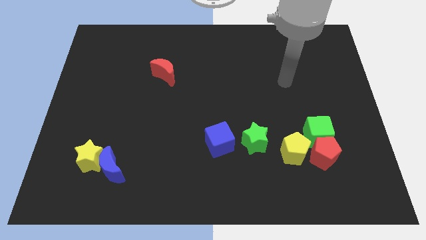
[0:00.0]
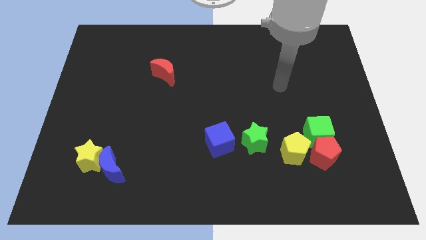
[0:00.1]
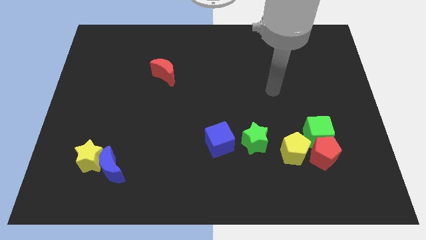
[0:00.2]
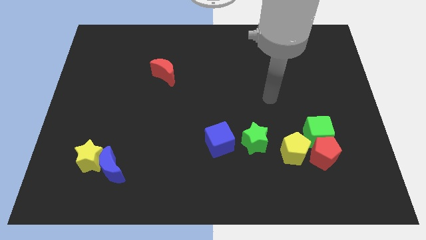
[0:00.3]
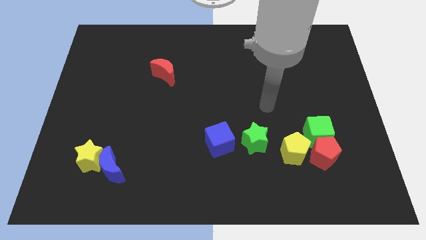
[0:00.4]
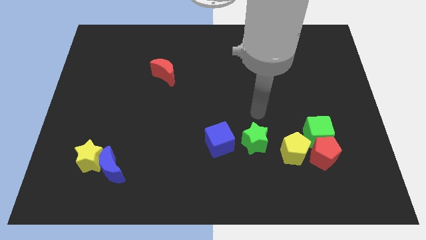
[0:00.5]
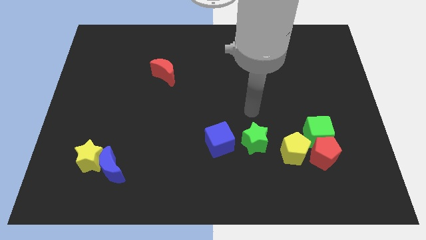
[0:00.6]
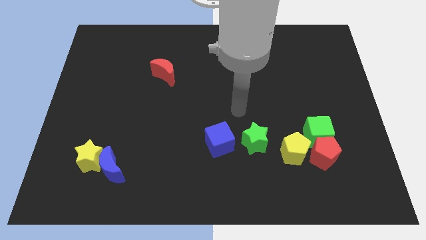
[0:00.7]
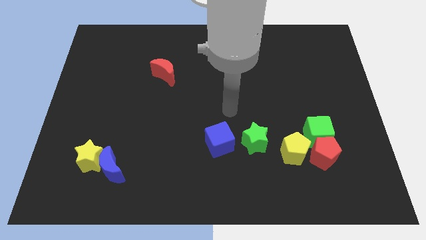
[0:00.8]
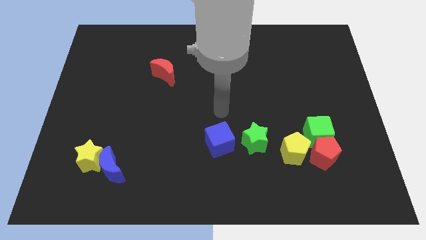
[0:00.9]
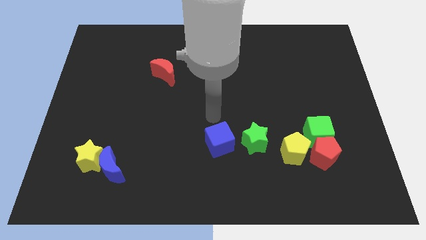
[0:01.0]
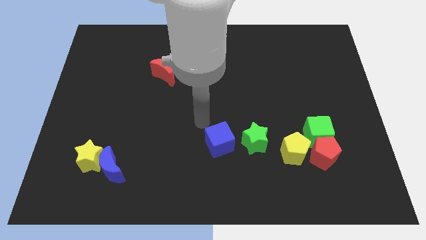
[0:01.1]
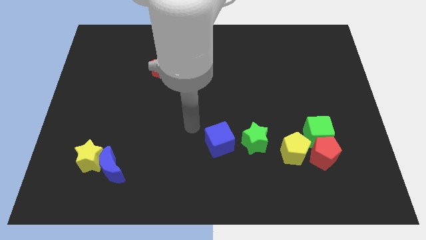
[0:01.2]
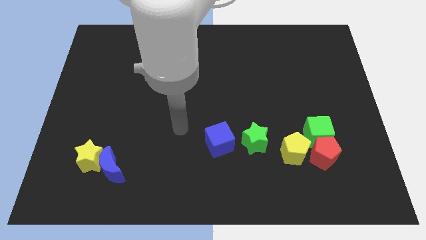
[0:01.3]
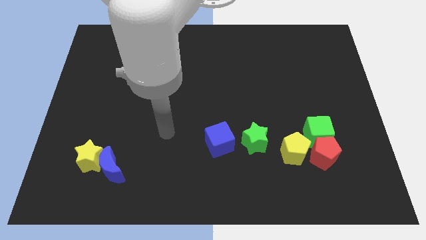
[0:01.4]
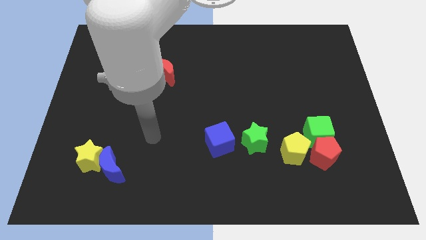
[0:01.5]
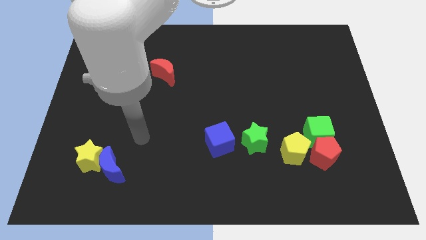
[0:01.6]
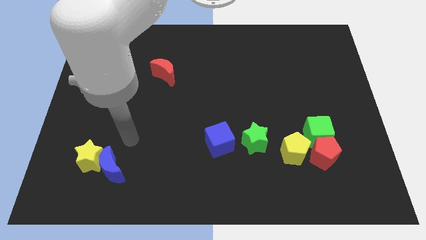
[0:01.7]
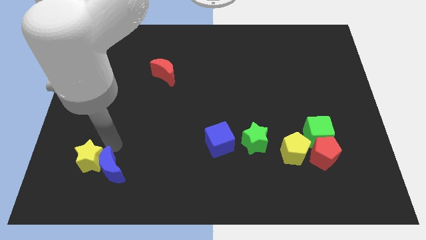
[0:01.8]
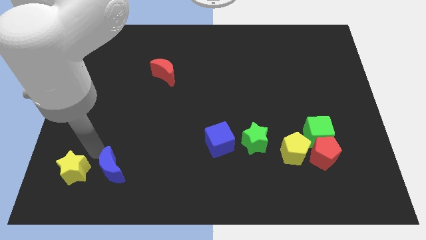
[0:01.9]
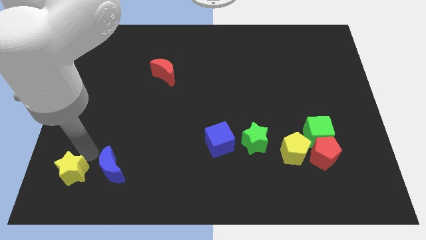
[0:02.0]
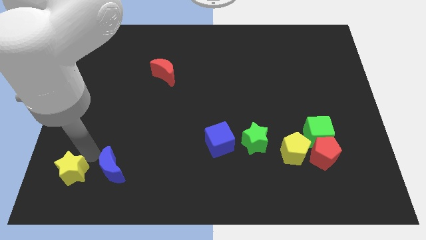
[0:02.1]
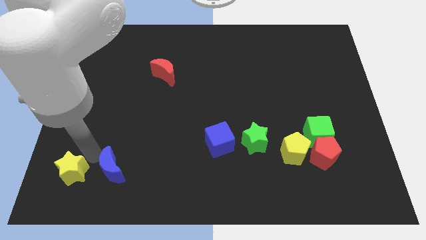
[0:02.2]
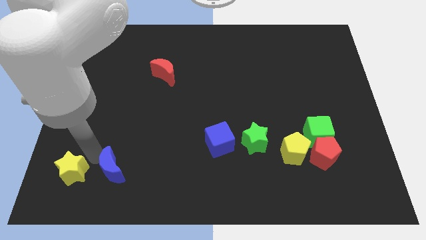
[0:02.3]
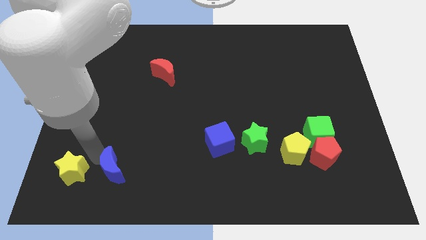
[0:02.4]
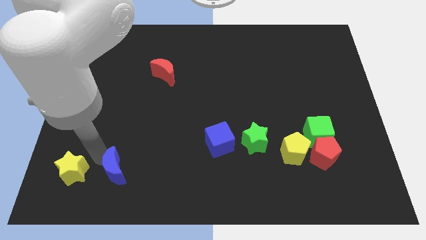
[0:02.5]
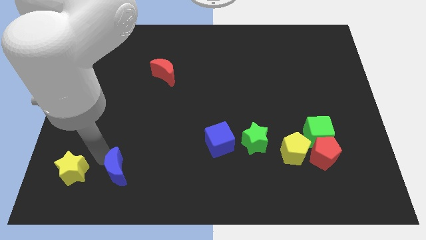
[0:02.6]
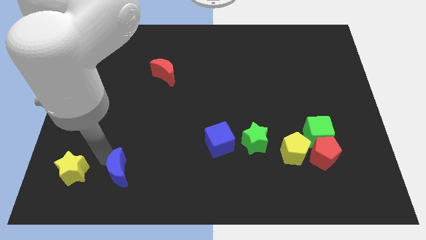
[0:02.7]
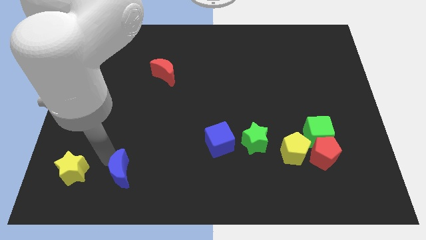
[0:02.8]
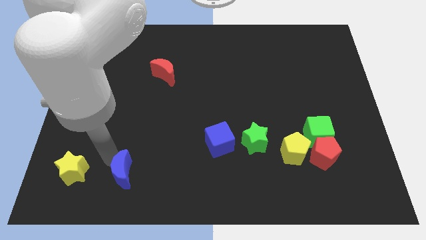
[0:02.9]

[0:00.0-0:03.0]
separate the blue moon from the yellow star

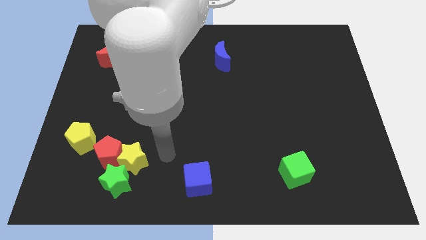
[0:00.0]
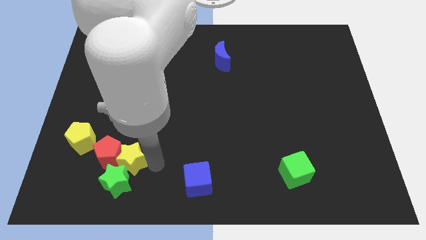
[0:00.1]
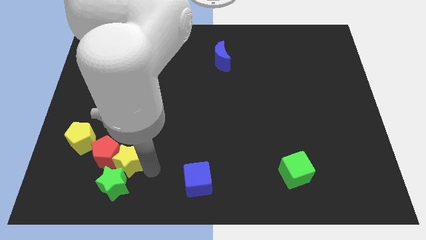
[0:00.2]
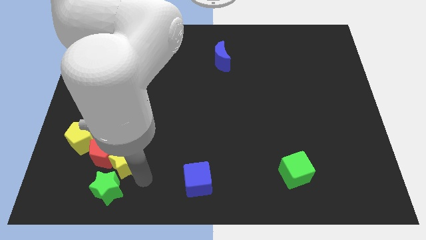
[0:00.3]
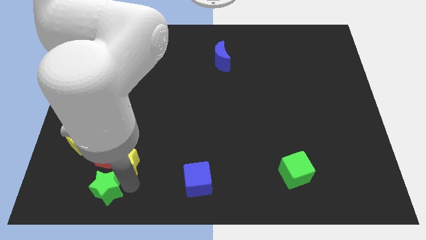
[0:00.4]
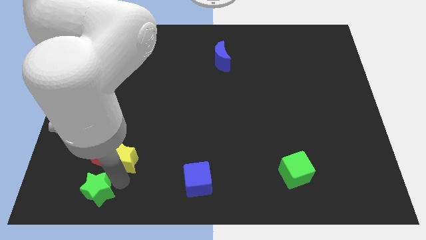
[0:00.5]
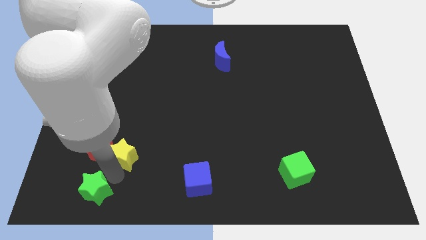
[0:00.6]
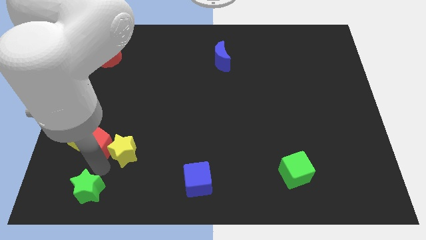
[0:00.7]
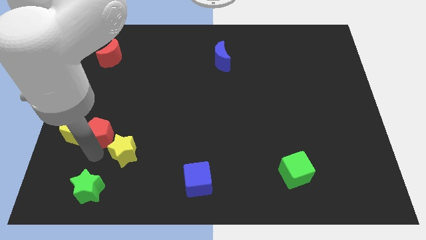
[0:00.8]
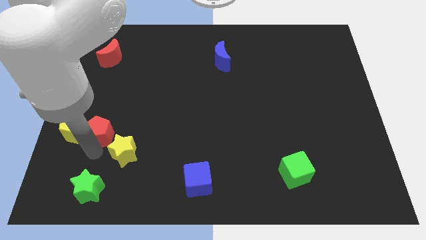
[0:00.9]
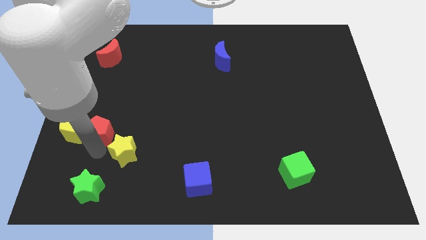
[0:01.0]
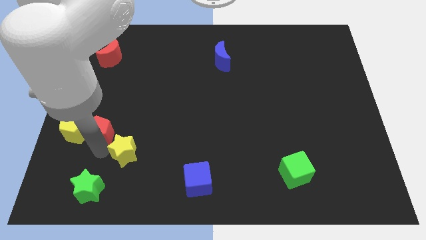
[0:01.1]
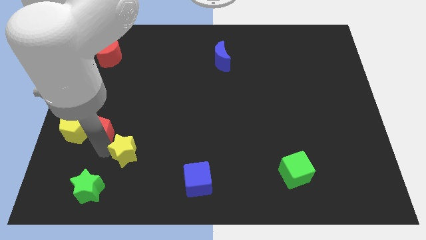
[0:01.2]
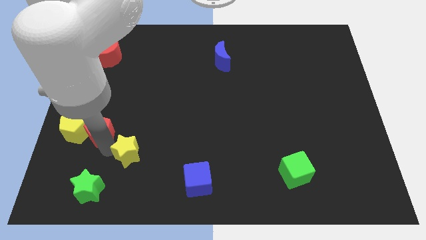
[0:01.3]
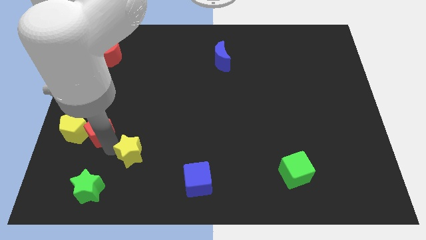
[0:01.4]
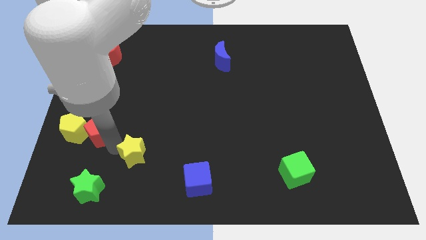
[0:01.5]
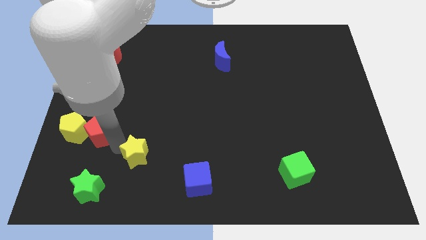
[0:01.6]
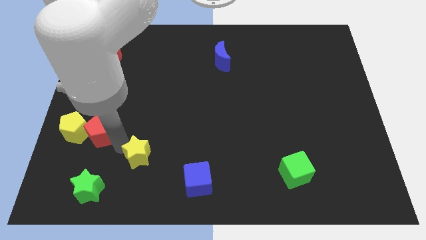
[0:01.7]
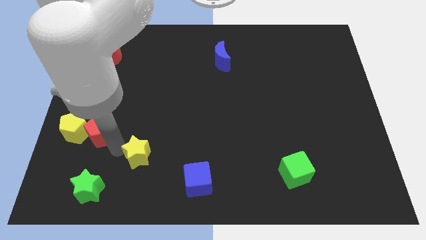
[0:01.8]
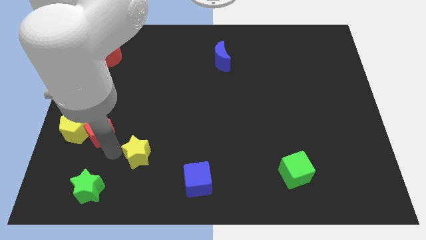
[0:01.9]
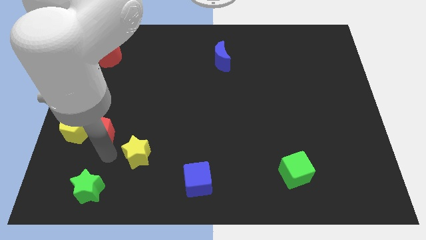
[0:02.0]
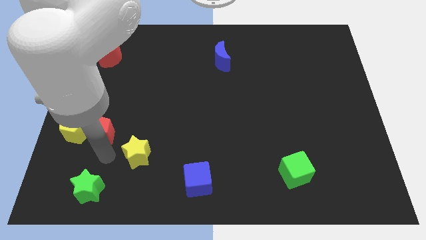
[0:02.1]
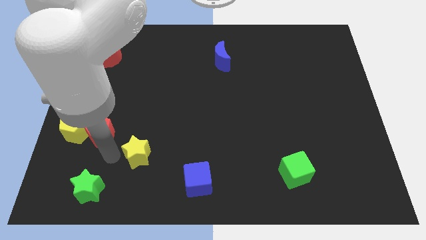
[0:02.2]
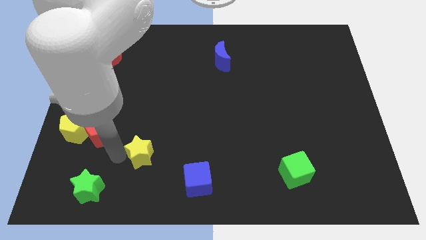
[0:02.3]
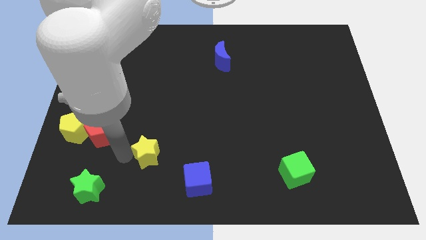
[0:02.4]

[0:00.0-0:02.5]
move the yellow star away from the red pentagon and green star

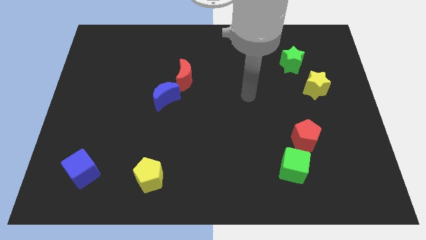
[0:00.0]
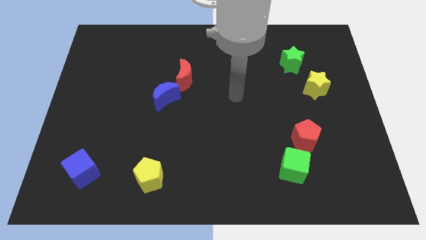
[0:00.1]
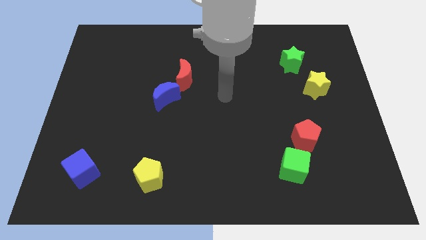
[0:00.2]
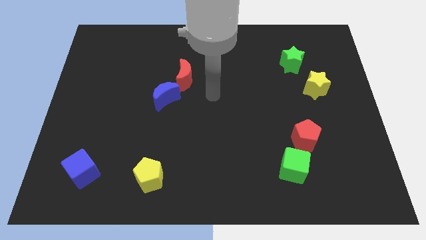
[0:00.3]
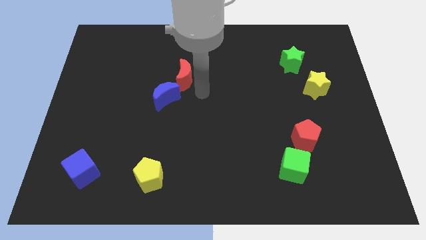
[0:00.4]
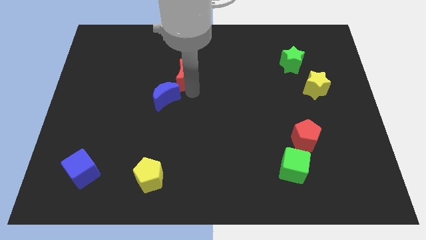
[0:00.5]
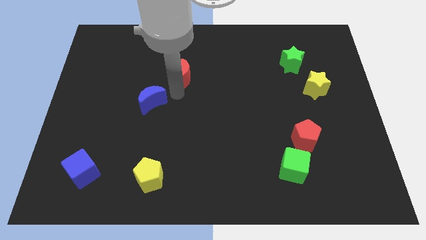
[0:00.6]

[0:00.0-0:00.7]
pull the red moon apart from the blue moon

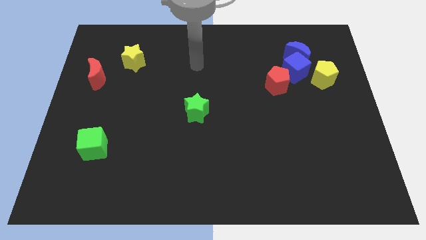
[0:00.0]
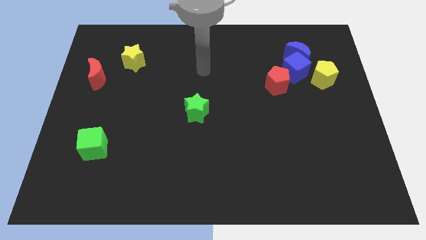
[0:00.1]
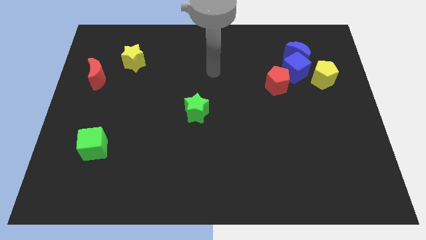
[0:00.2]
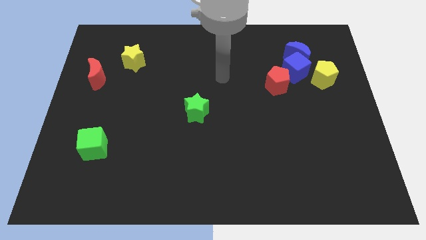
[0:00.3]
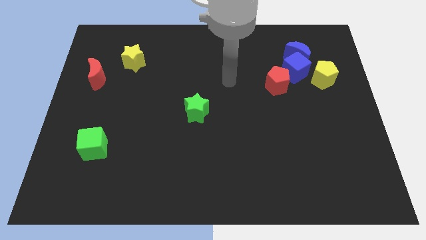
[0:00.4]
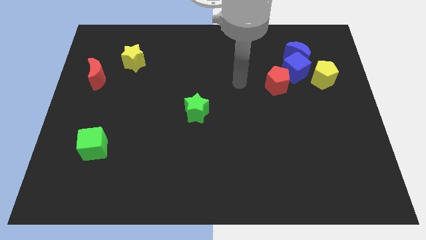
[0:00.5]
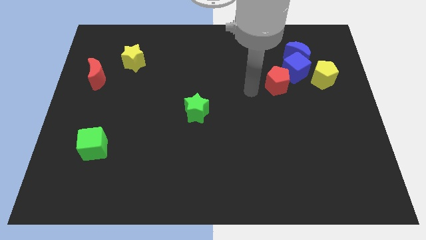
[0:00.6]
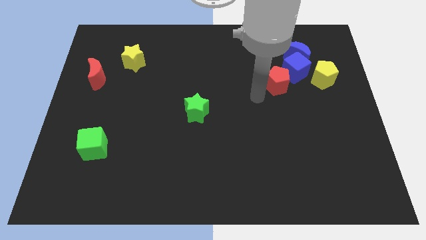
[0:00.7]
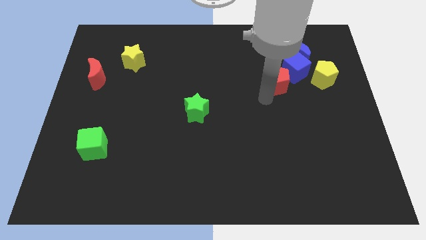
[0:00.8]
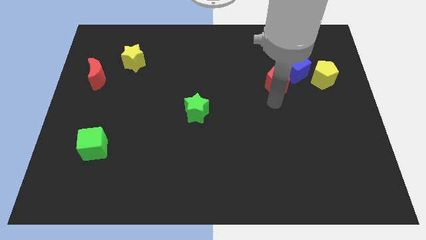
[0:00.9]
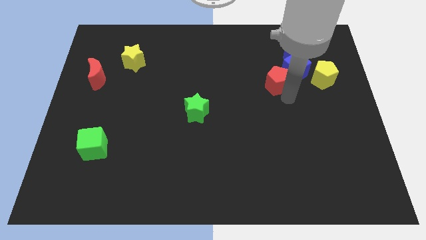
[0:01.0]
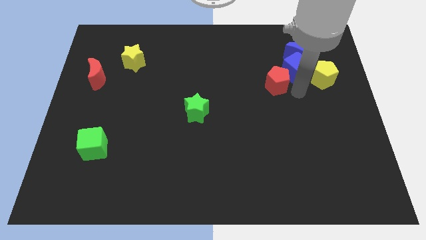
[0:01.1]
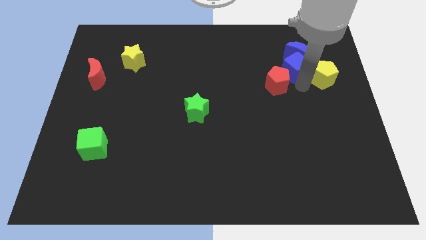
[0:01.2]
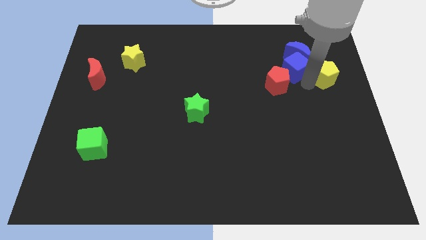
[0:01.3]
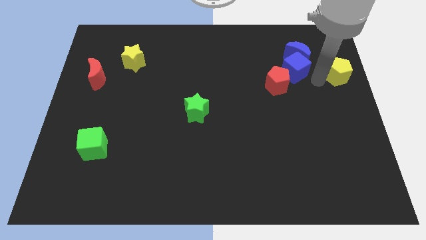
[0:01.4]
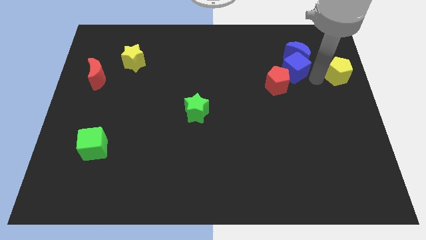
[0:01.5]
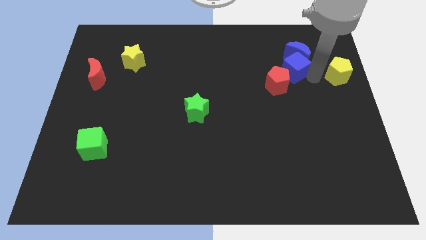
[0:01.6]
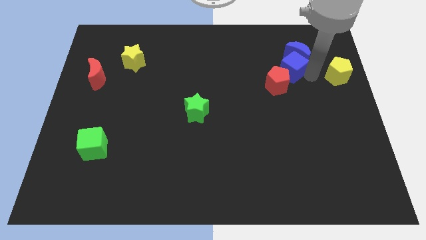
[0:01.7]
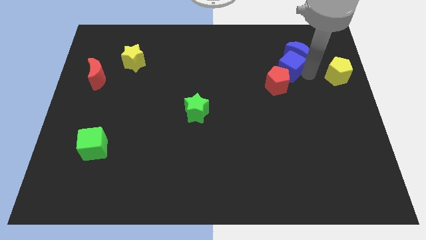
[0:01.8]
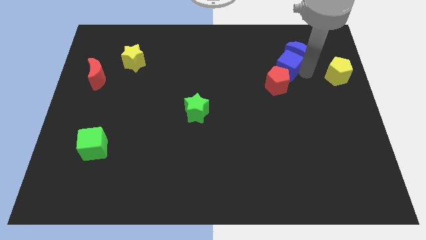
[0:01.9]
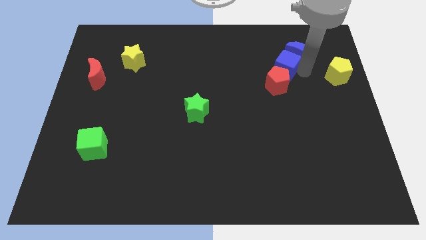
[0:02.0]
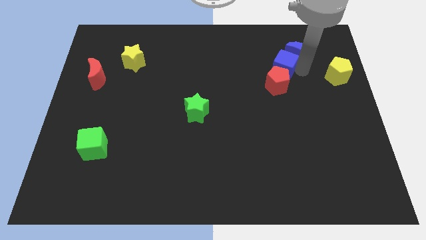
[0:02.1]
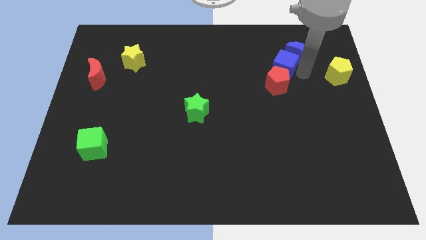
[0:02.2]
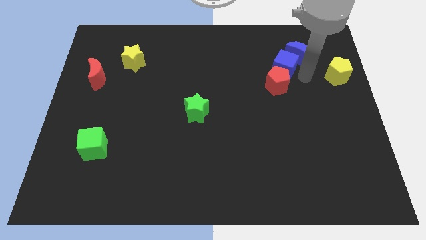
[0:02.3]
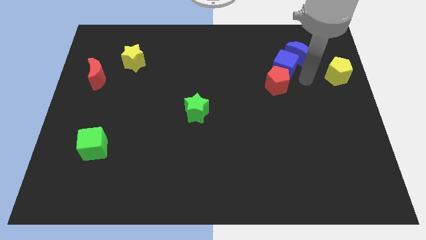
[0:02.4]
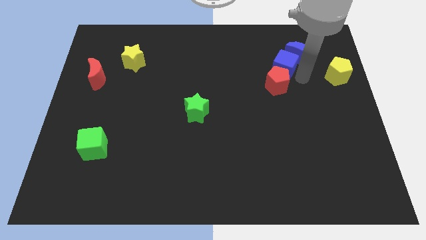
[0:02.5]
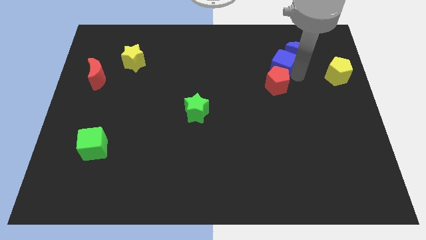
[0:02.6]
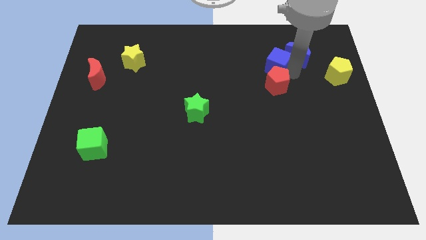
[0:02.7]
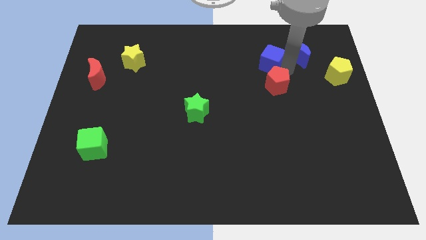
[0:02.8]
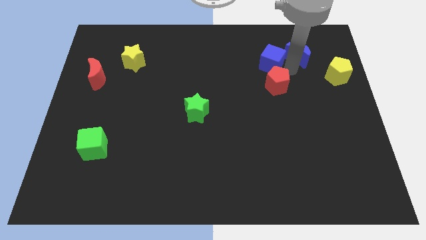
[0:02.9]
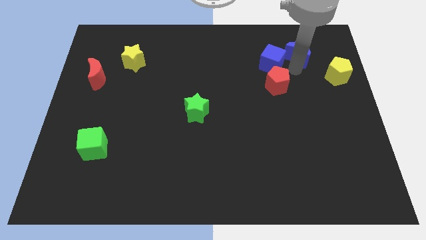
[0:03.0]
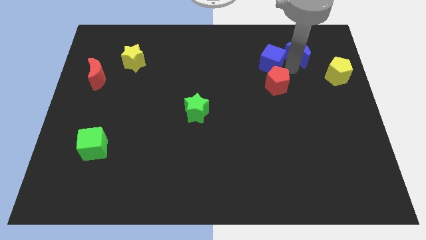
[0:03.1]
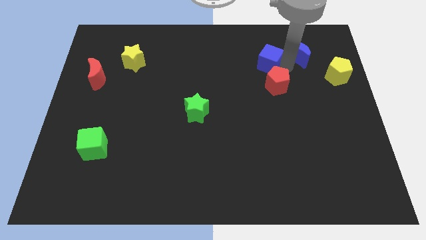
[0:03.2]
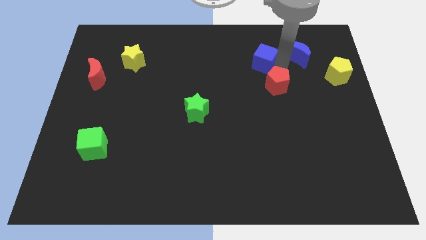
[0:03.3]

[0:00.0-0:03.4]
separate the blue cube from the blue moon, red pentagon, and yellow pentagon
